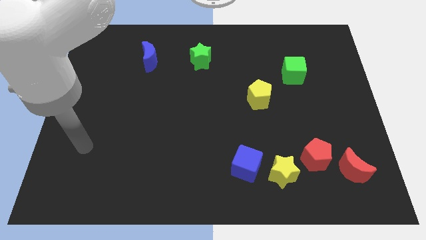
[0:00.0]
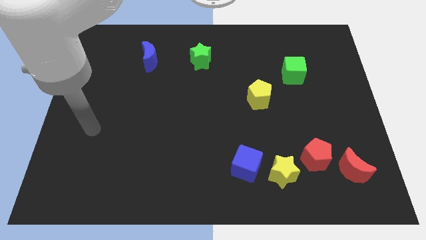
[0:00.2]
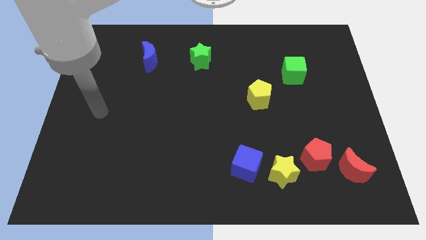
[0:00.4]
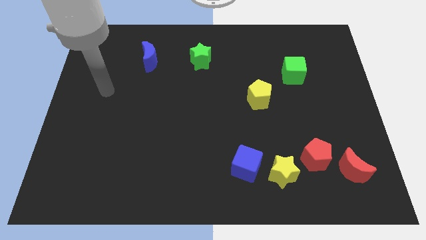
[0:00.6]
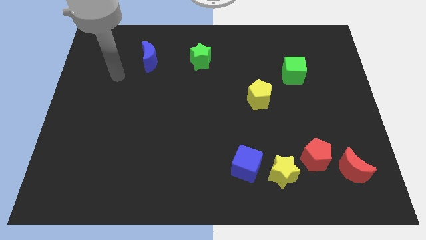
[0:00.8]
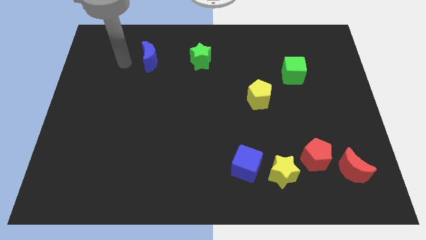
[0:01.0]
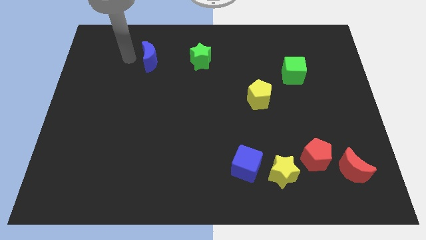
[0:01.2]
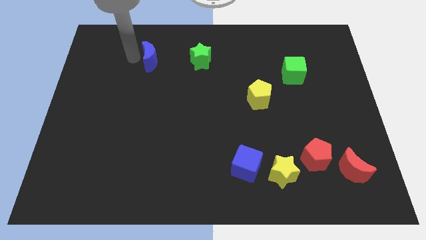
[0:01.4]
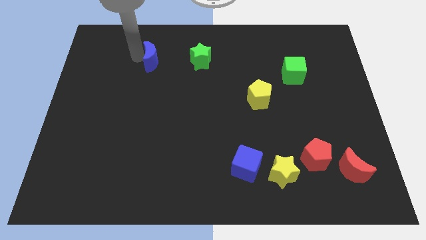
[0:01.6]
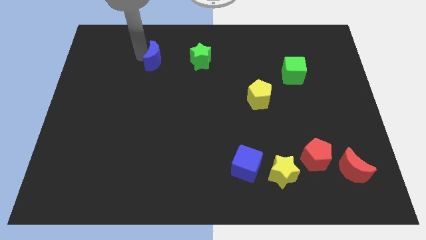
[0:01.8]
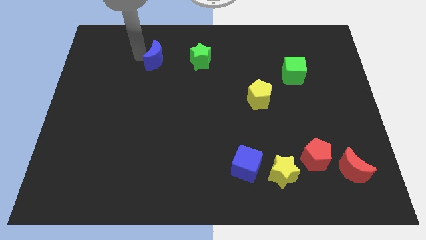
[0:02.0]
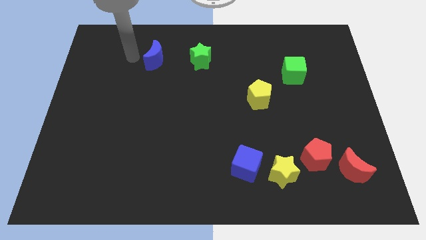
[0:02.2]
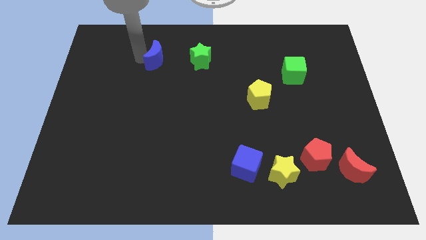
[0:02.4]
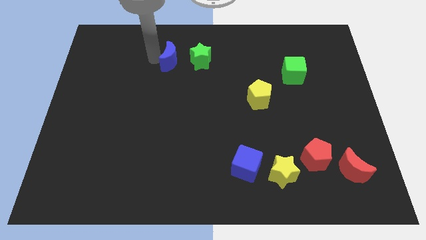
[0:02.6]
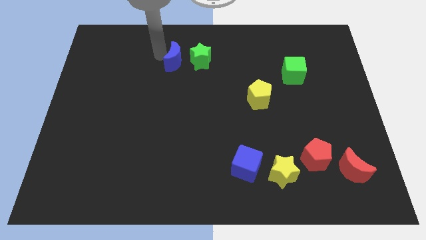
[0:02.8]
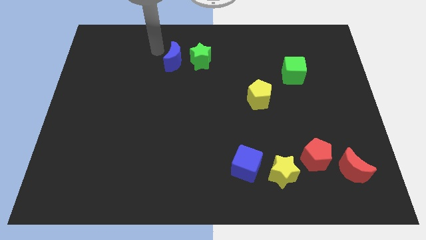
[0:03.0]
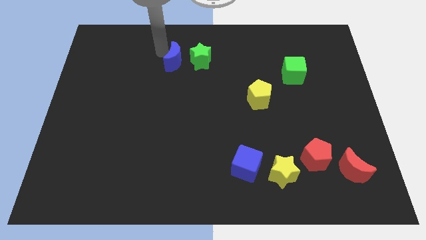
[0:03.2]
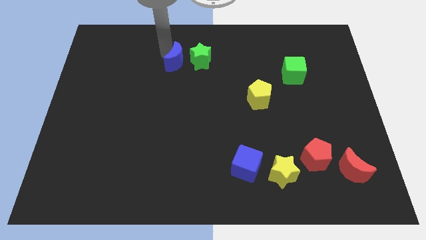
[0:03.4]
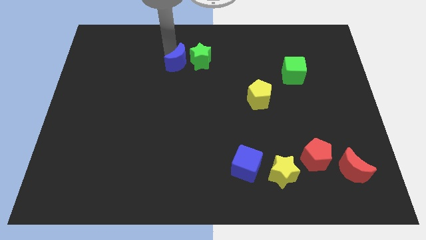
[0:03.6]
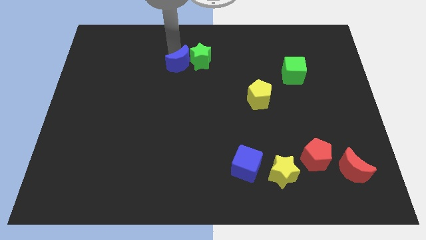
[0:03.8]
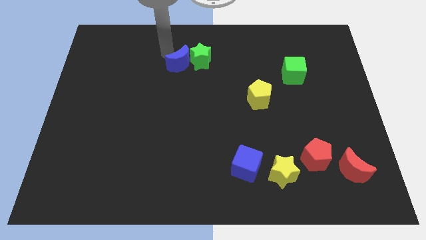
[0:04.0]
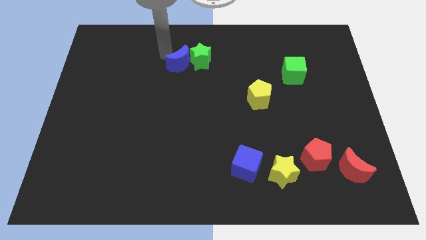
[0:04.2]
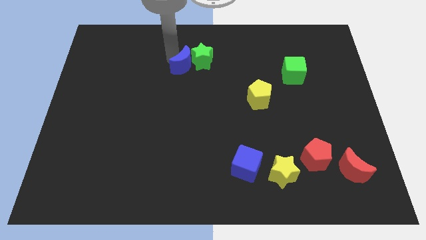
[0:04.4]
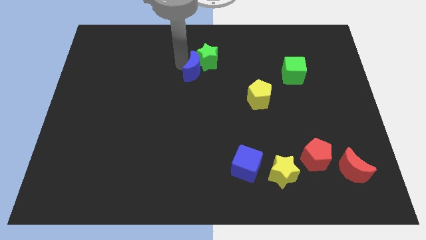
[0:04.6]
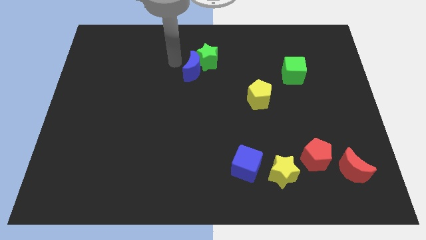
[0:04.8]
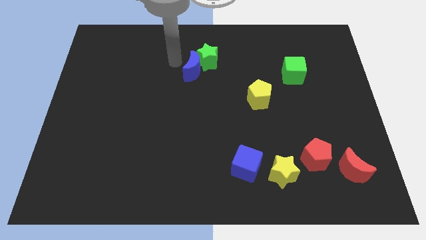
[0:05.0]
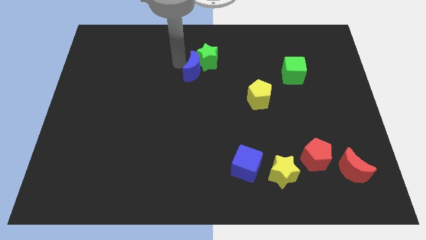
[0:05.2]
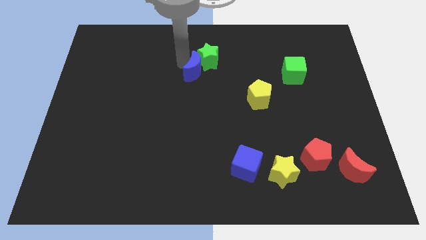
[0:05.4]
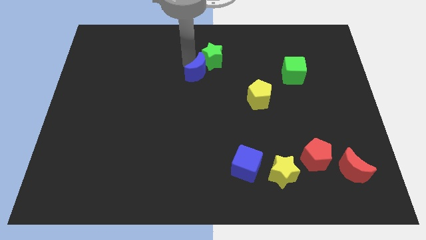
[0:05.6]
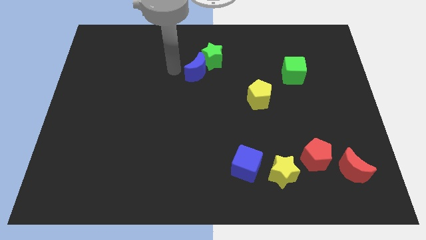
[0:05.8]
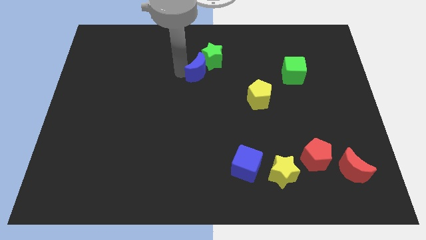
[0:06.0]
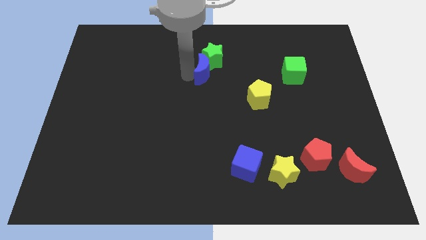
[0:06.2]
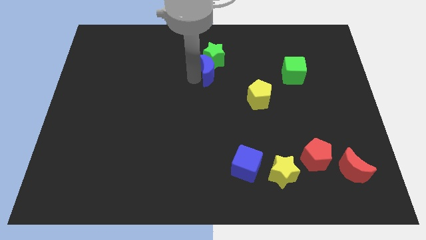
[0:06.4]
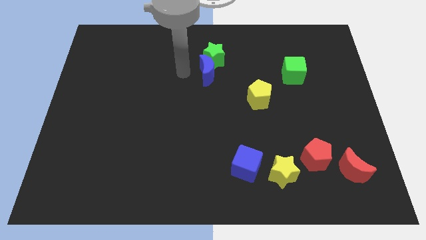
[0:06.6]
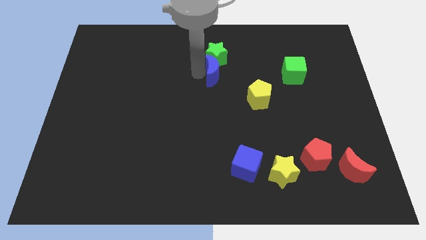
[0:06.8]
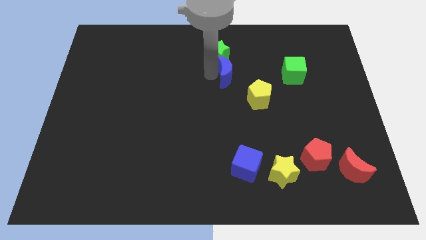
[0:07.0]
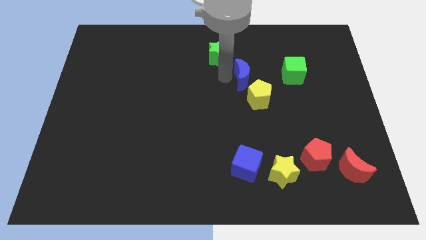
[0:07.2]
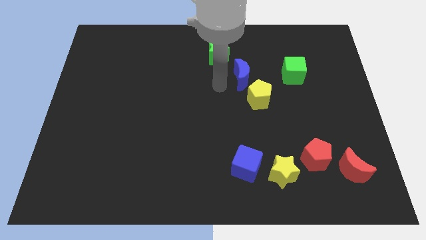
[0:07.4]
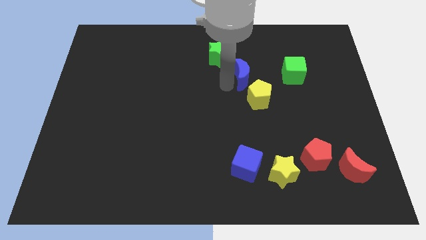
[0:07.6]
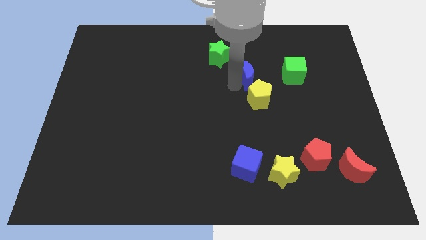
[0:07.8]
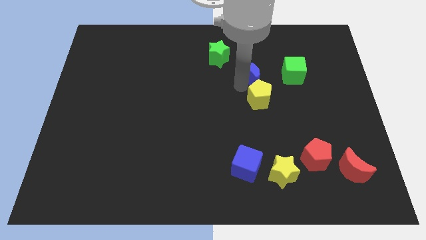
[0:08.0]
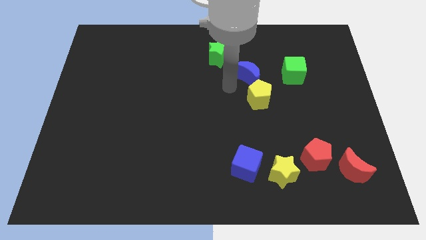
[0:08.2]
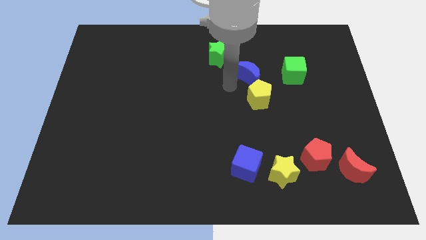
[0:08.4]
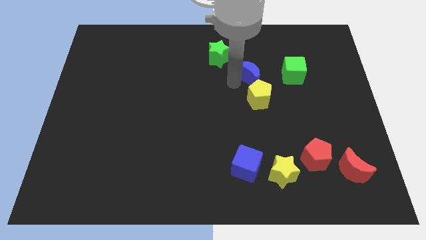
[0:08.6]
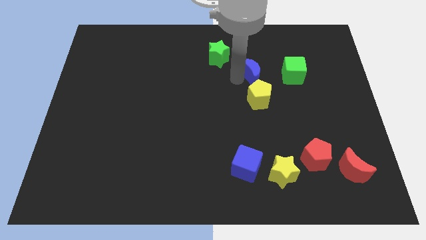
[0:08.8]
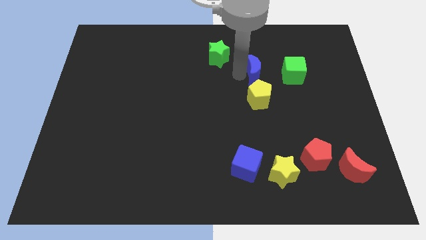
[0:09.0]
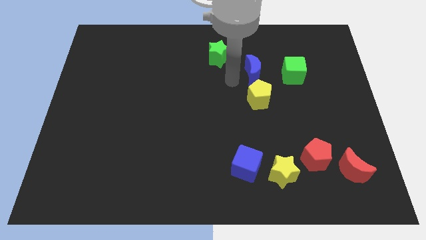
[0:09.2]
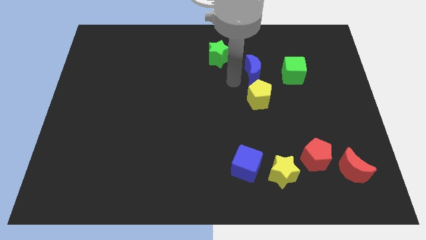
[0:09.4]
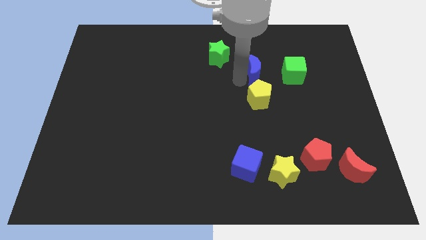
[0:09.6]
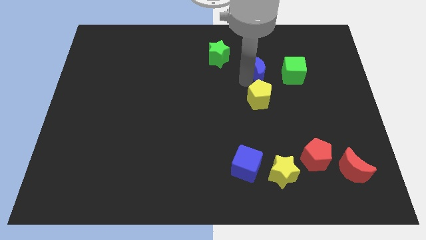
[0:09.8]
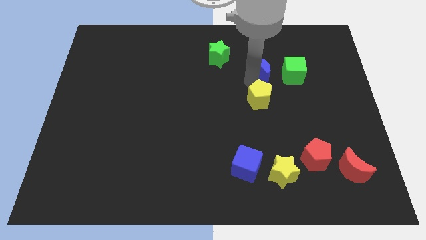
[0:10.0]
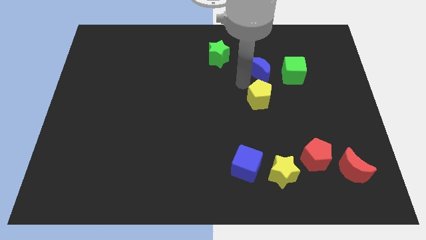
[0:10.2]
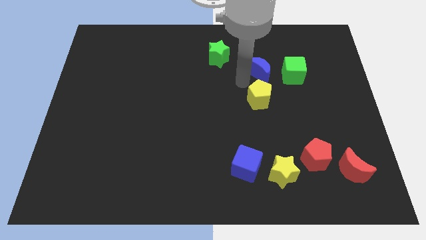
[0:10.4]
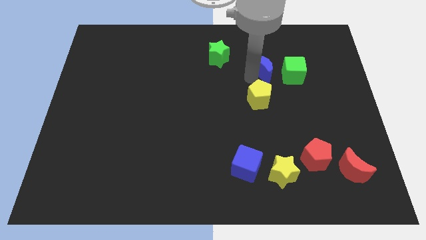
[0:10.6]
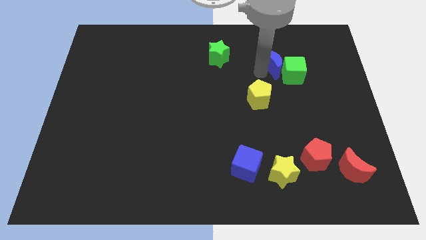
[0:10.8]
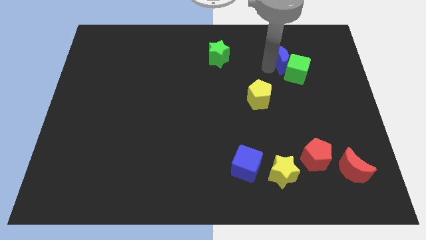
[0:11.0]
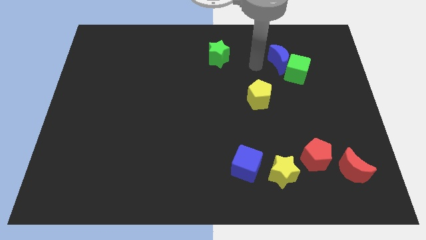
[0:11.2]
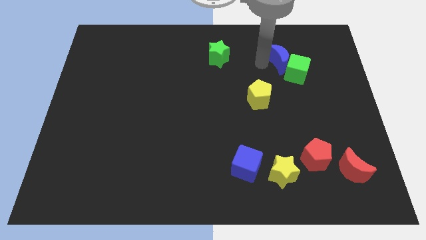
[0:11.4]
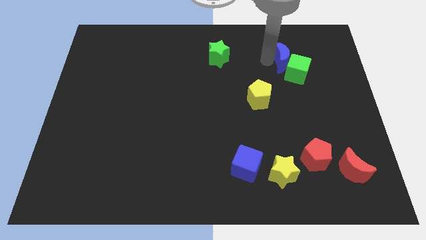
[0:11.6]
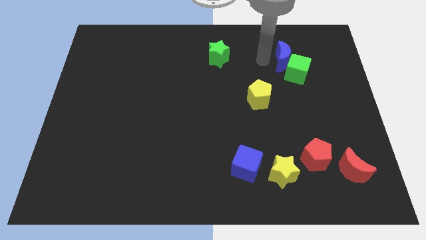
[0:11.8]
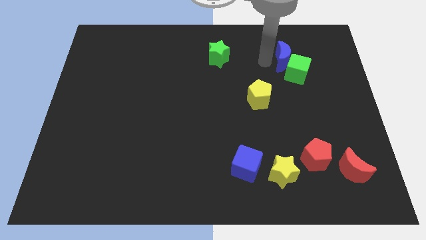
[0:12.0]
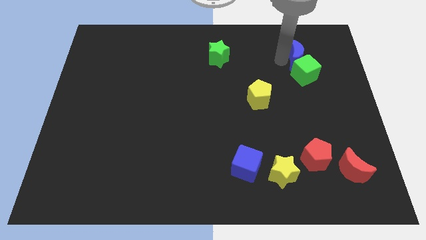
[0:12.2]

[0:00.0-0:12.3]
put the blue moon diagonally up and to the right of the green cube

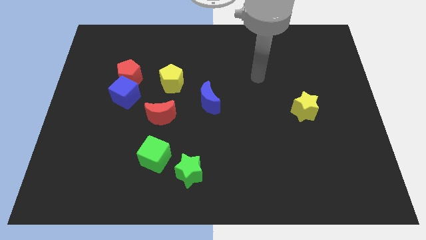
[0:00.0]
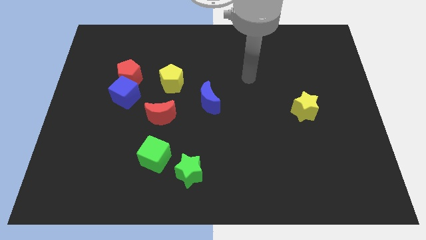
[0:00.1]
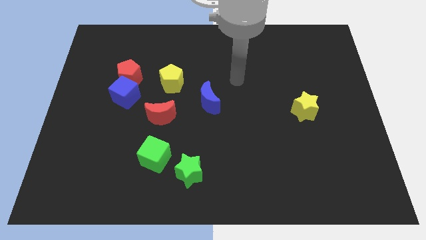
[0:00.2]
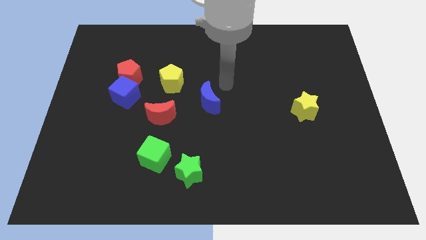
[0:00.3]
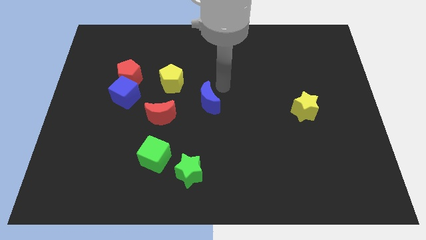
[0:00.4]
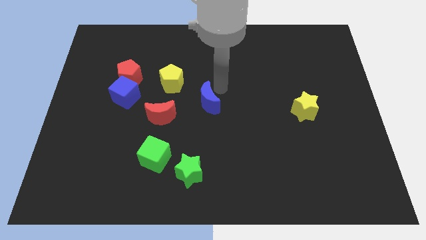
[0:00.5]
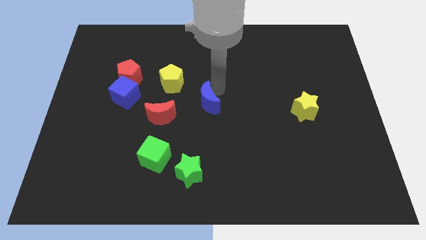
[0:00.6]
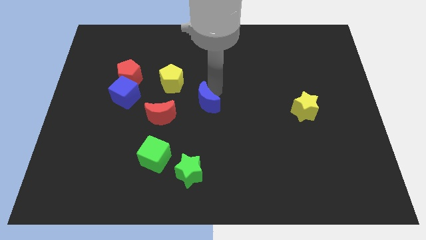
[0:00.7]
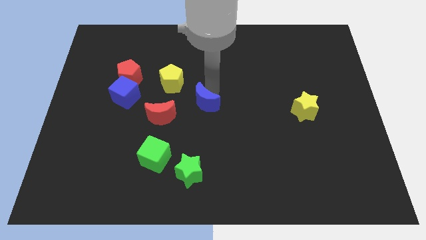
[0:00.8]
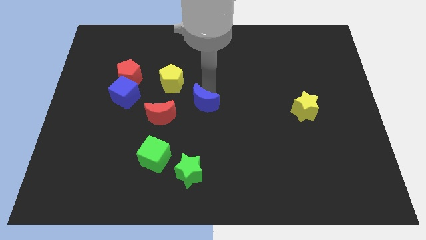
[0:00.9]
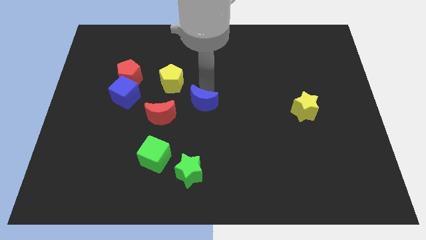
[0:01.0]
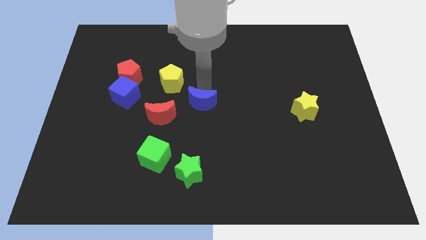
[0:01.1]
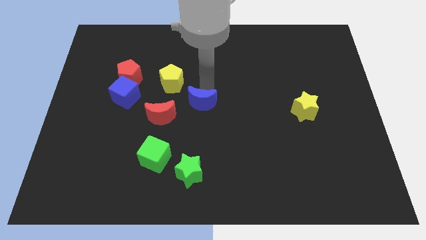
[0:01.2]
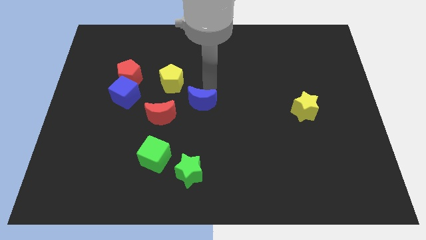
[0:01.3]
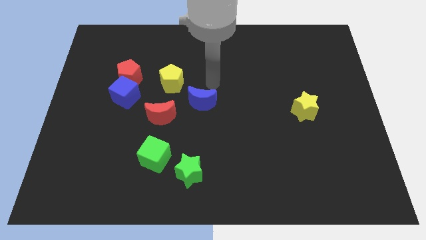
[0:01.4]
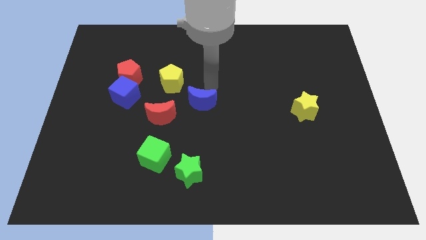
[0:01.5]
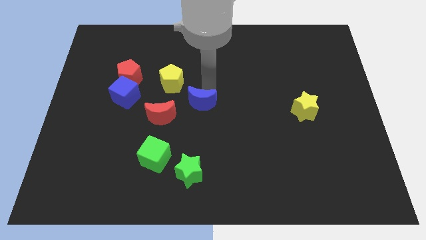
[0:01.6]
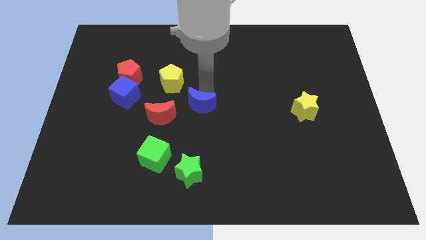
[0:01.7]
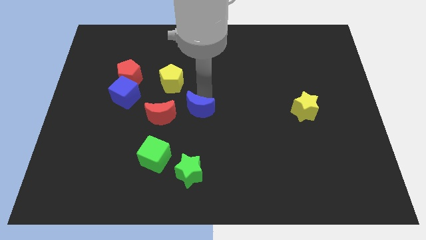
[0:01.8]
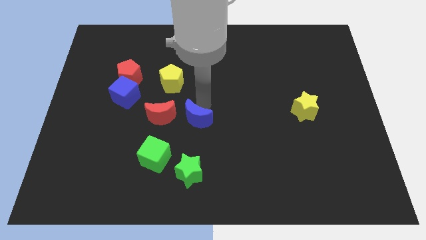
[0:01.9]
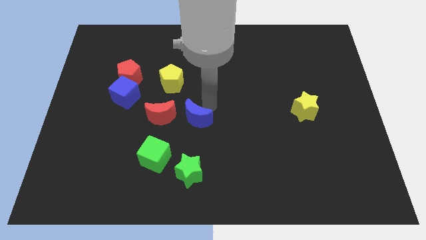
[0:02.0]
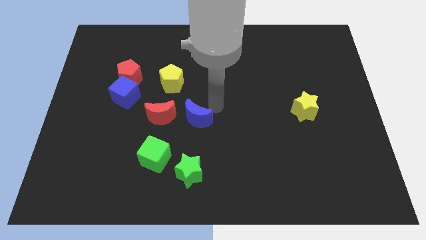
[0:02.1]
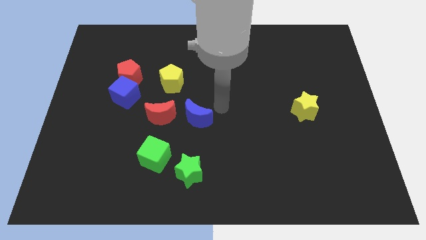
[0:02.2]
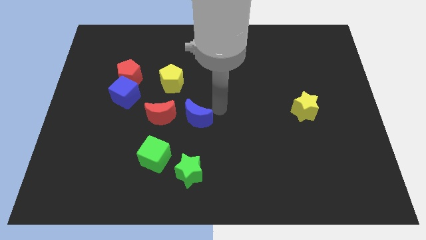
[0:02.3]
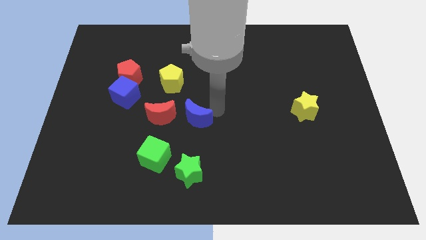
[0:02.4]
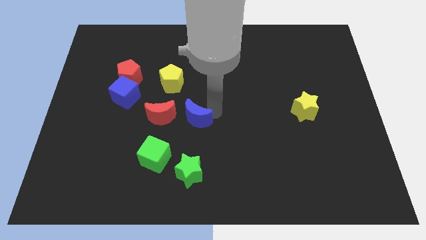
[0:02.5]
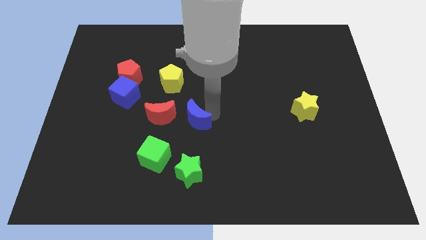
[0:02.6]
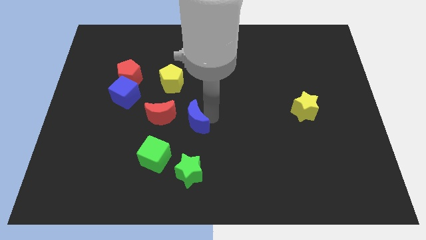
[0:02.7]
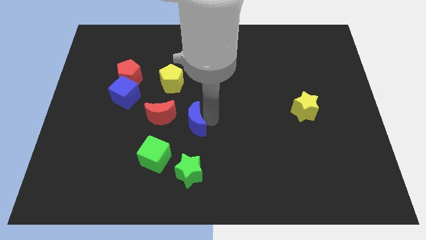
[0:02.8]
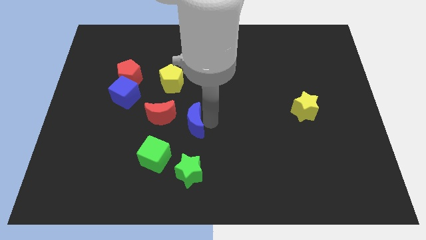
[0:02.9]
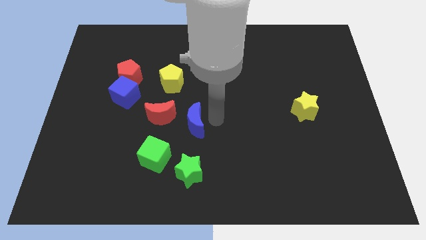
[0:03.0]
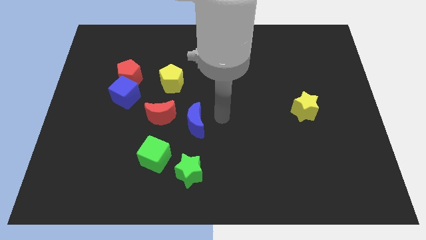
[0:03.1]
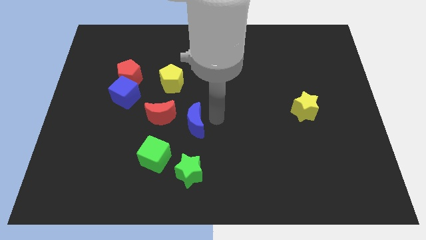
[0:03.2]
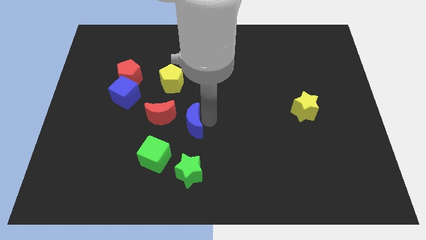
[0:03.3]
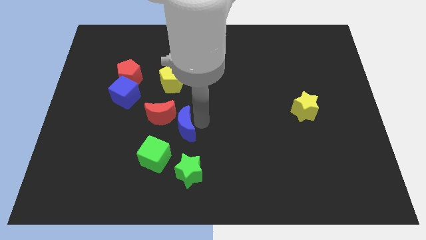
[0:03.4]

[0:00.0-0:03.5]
slide the blue moon to the bottom of the yellow pentagon
